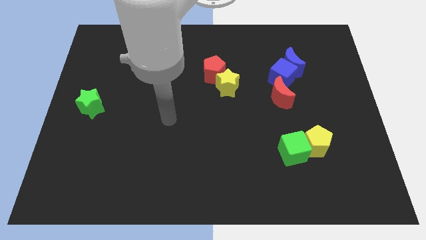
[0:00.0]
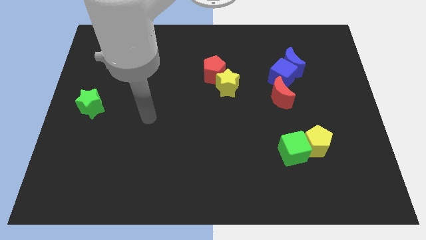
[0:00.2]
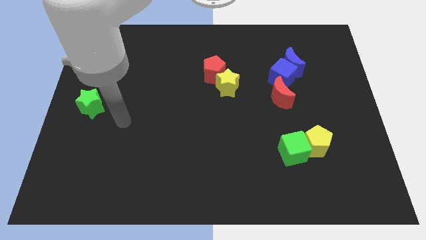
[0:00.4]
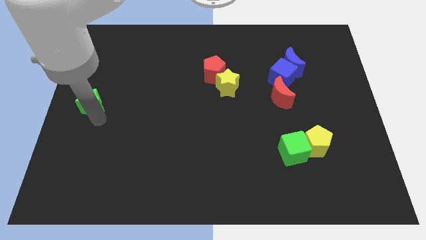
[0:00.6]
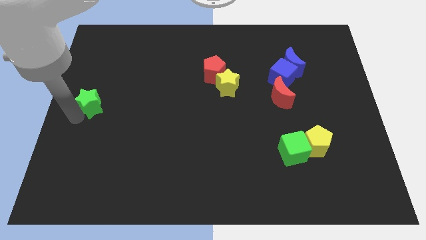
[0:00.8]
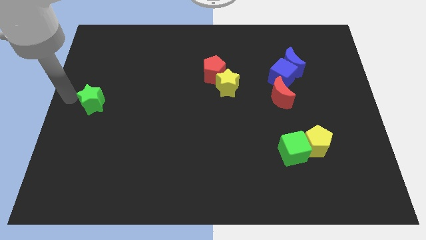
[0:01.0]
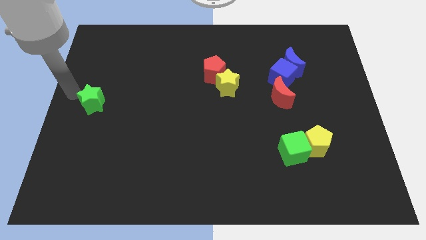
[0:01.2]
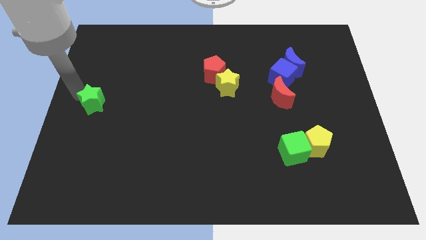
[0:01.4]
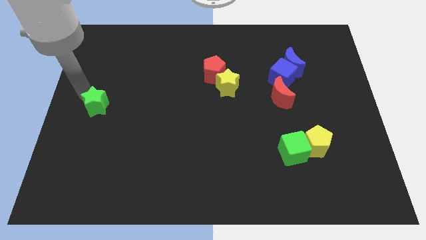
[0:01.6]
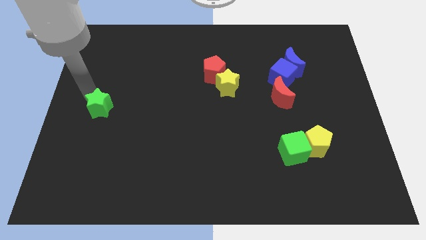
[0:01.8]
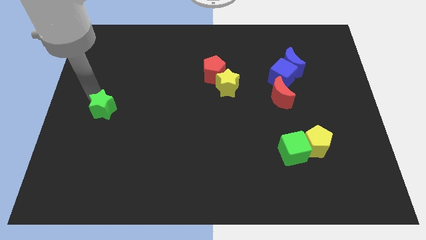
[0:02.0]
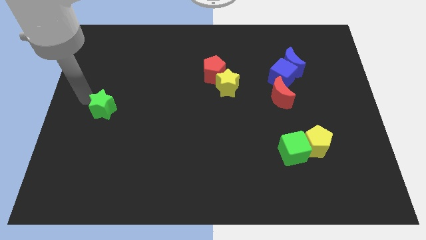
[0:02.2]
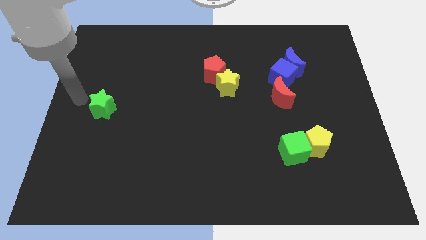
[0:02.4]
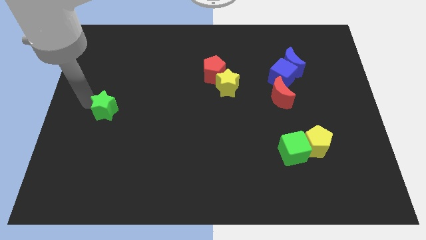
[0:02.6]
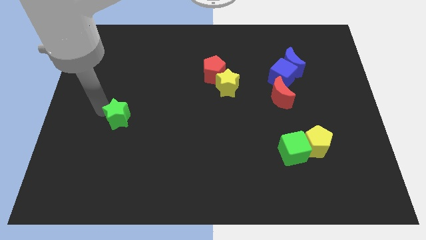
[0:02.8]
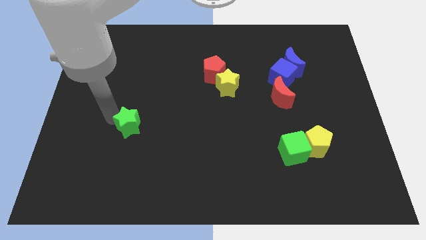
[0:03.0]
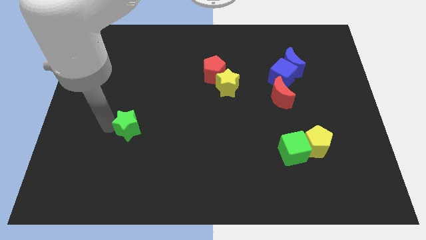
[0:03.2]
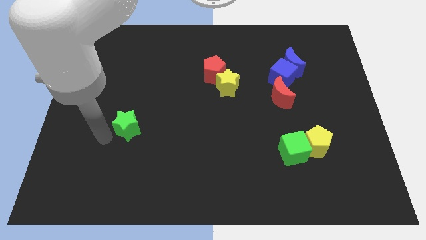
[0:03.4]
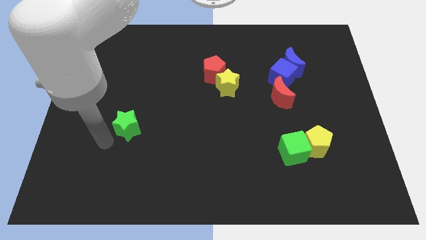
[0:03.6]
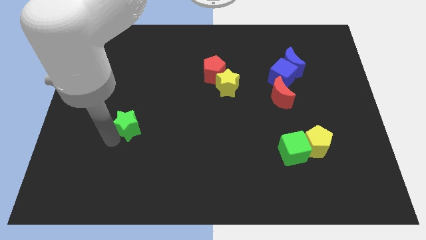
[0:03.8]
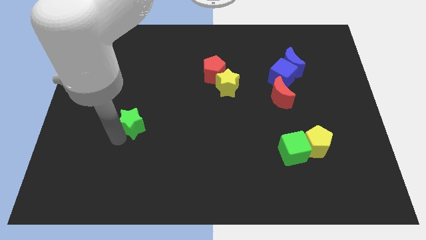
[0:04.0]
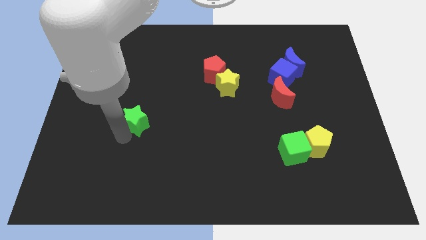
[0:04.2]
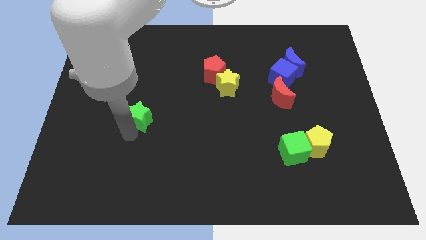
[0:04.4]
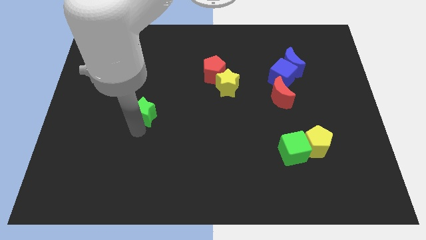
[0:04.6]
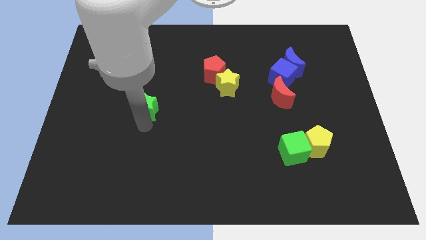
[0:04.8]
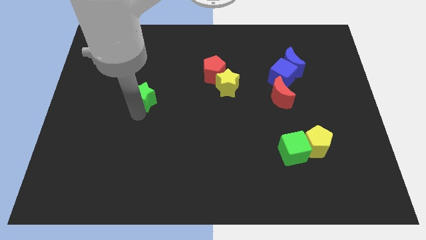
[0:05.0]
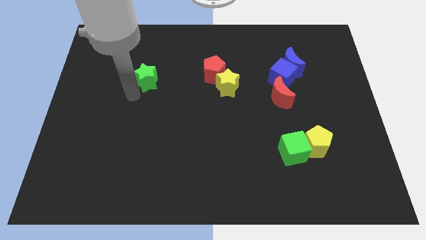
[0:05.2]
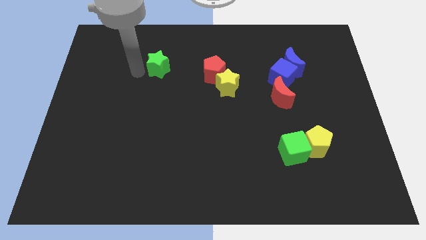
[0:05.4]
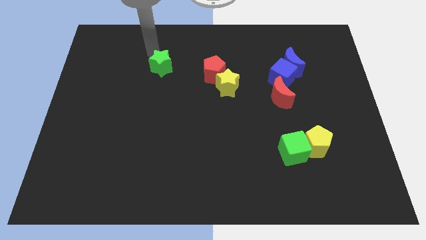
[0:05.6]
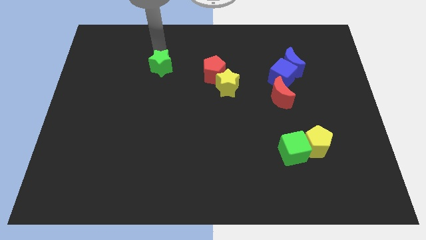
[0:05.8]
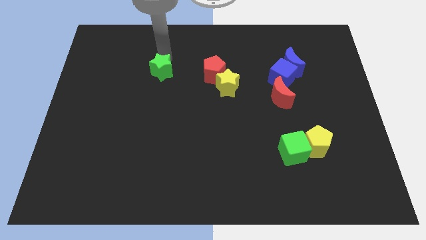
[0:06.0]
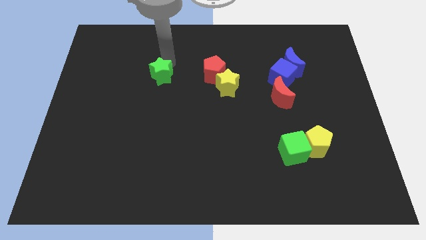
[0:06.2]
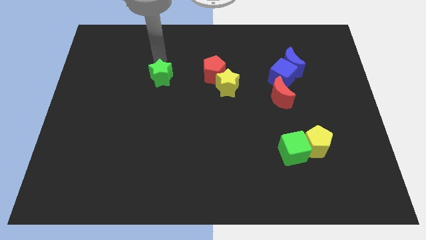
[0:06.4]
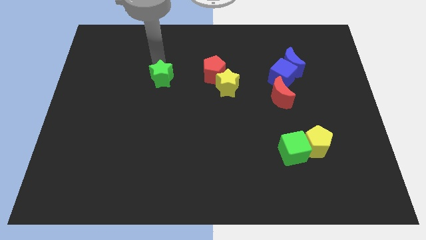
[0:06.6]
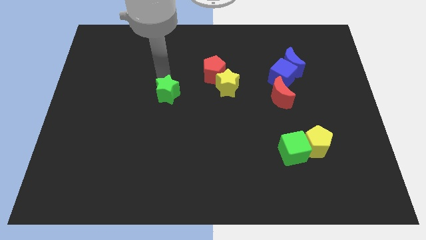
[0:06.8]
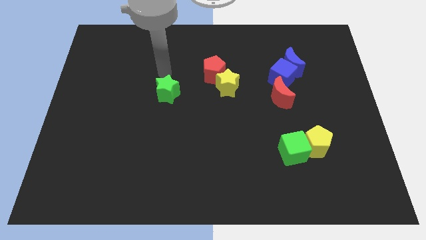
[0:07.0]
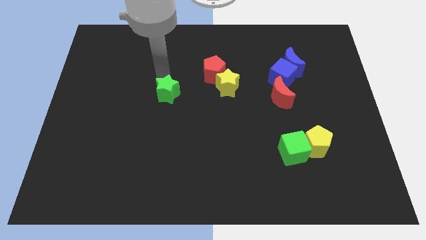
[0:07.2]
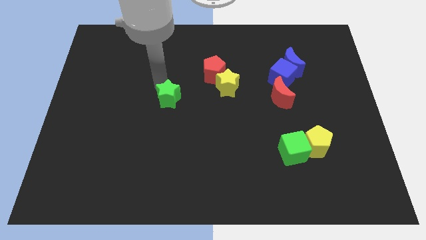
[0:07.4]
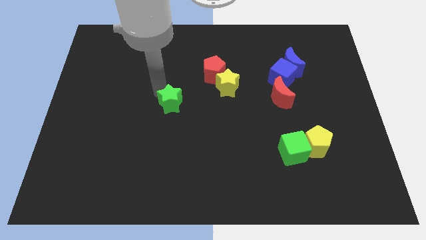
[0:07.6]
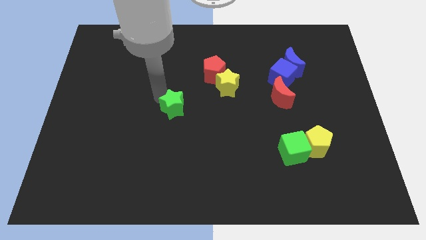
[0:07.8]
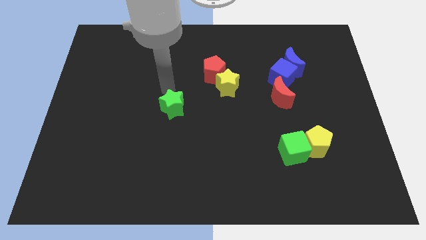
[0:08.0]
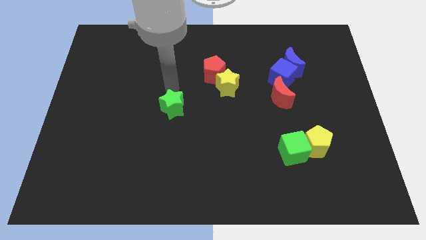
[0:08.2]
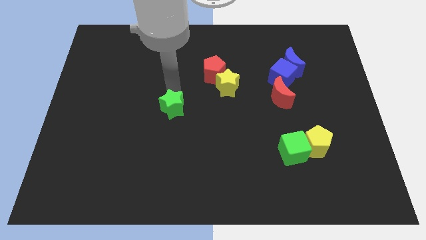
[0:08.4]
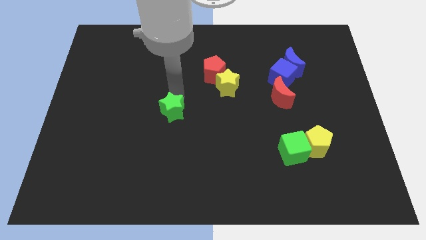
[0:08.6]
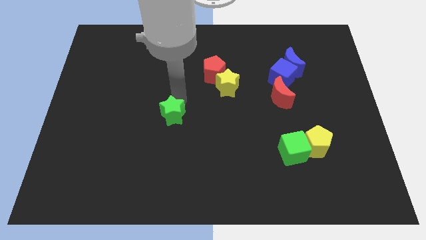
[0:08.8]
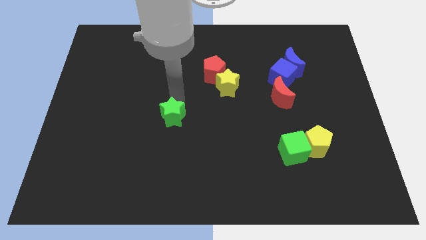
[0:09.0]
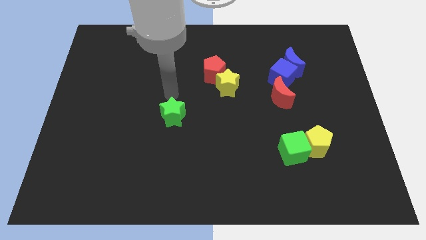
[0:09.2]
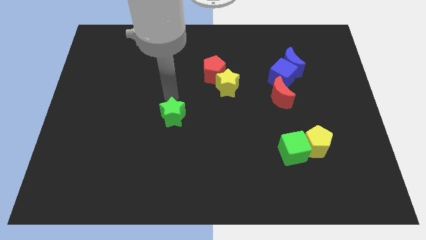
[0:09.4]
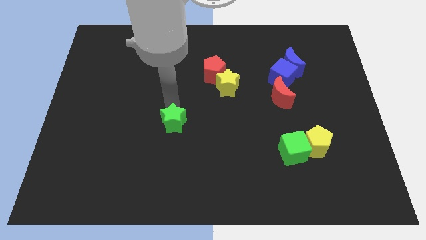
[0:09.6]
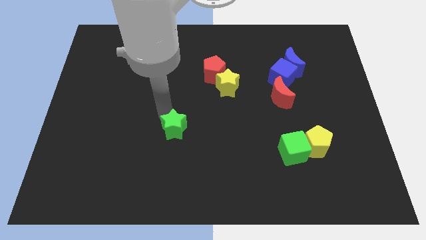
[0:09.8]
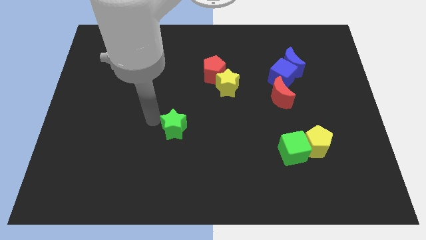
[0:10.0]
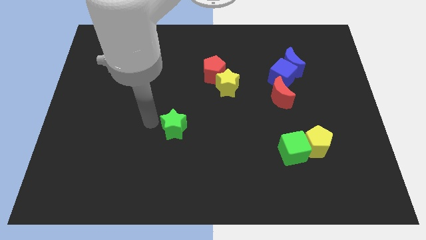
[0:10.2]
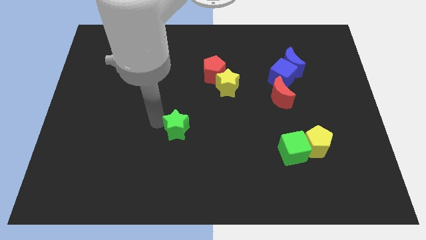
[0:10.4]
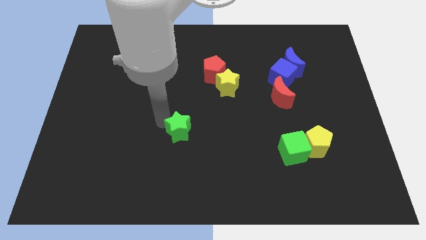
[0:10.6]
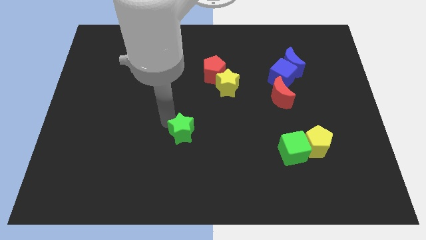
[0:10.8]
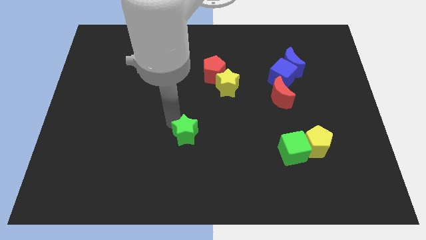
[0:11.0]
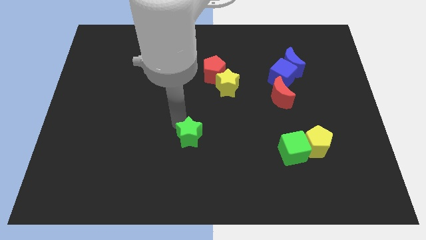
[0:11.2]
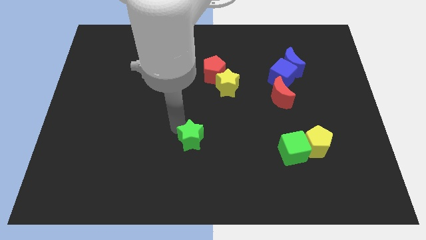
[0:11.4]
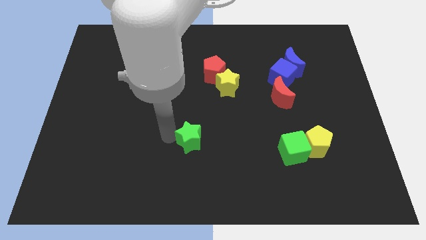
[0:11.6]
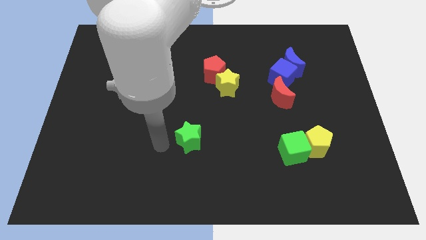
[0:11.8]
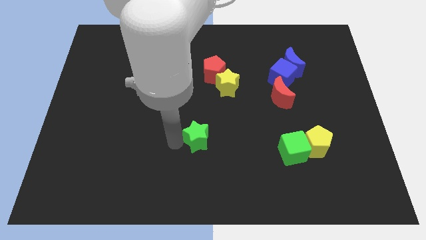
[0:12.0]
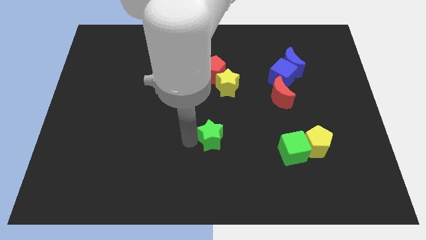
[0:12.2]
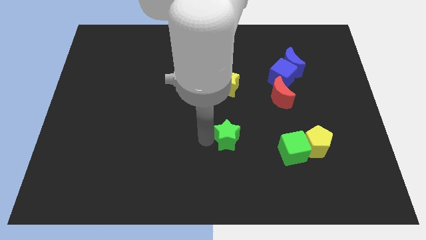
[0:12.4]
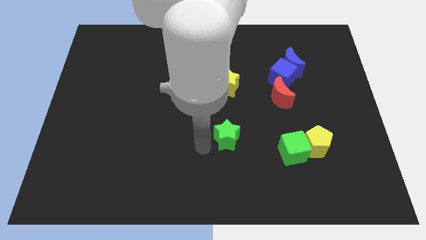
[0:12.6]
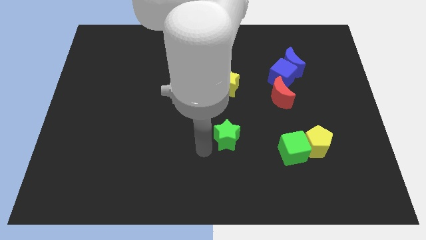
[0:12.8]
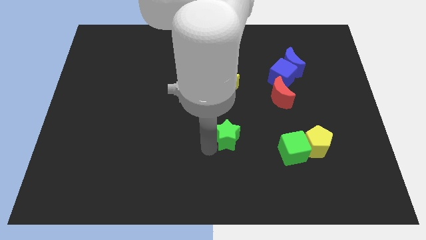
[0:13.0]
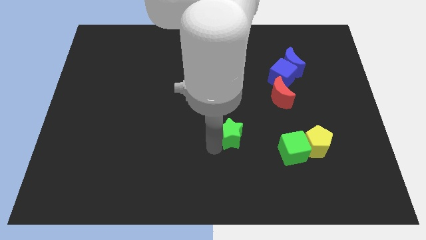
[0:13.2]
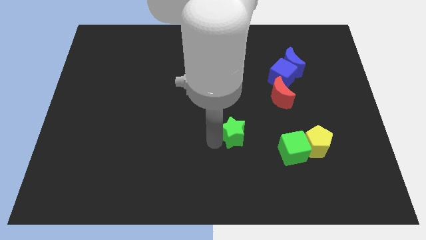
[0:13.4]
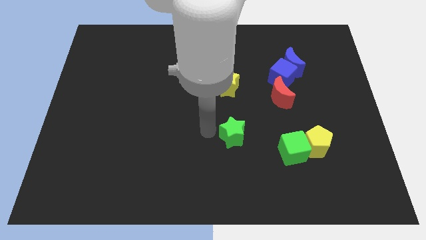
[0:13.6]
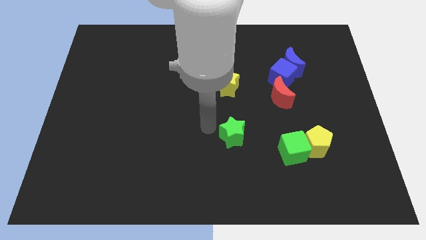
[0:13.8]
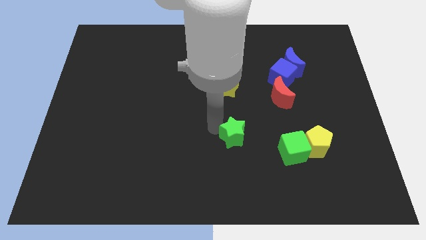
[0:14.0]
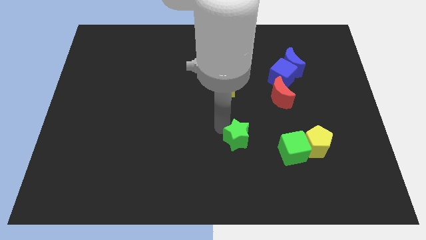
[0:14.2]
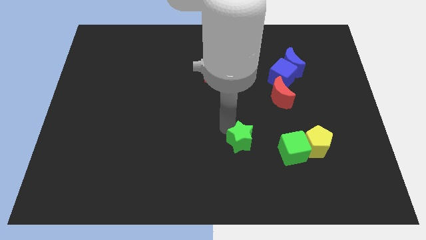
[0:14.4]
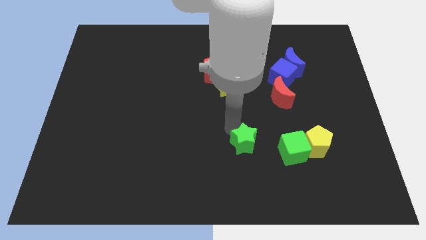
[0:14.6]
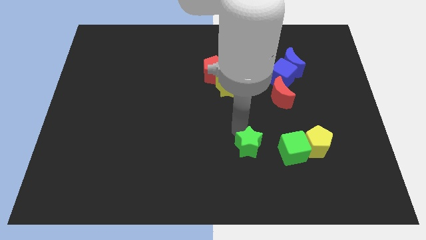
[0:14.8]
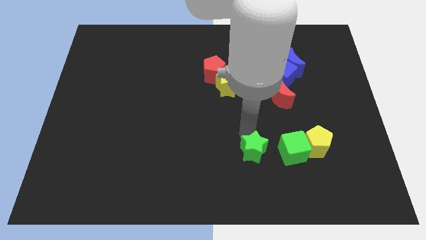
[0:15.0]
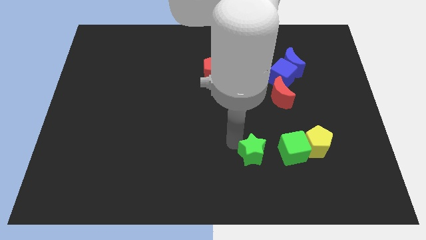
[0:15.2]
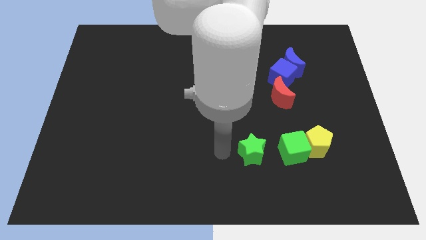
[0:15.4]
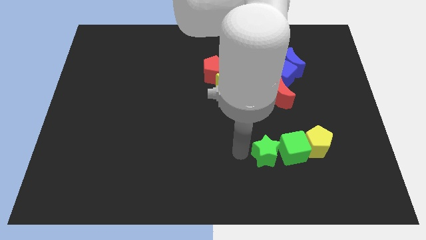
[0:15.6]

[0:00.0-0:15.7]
push the green star next to the green cube
